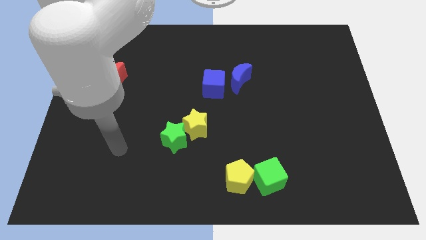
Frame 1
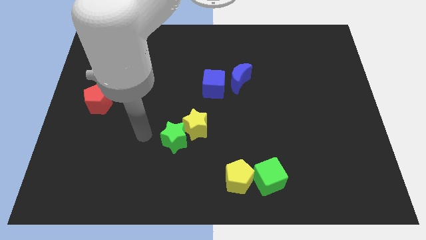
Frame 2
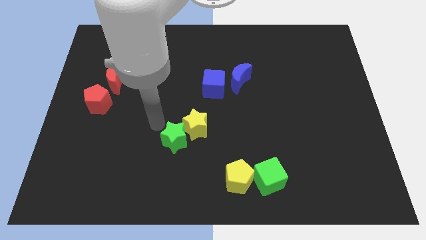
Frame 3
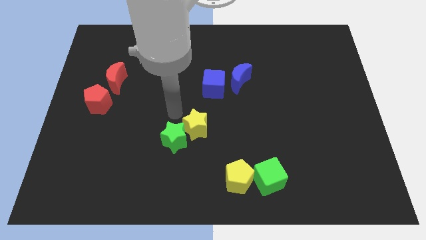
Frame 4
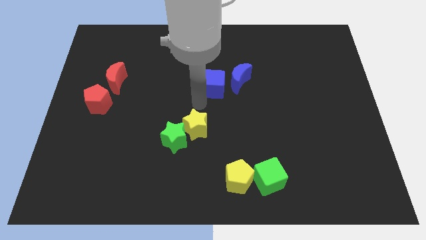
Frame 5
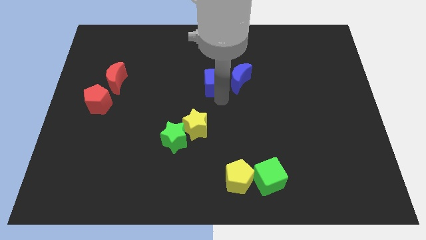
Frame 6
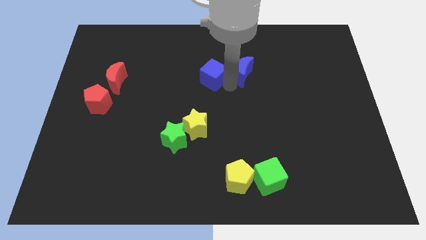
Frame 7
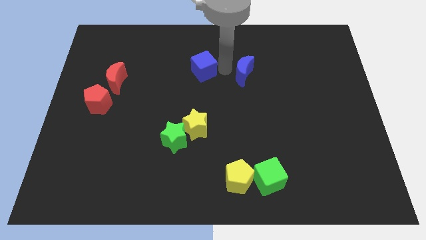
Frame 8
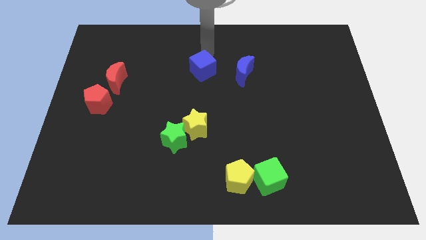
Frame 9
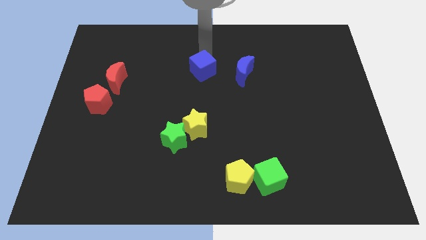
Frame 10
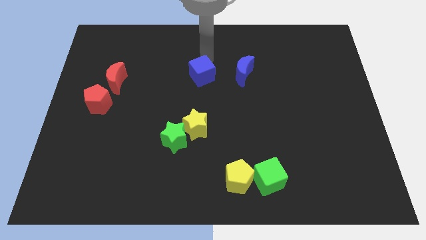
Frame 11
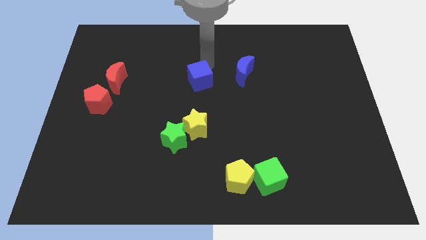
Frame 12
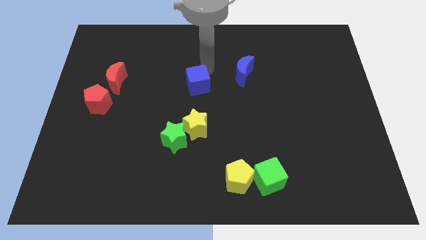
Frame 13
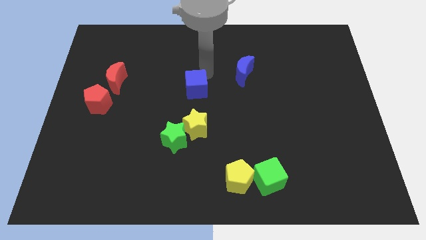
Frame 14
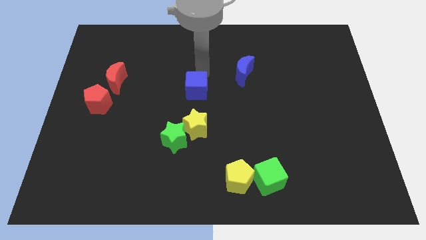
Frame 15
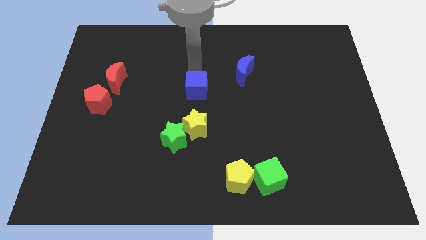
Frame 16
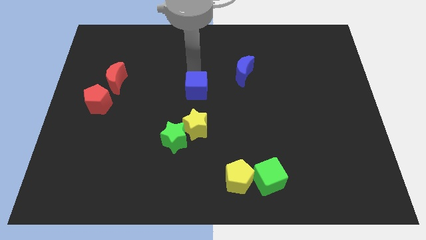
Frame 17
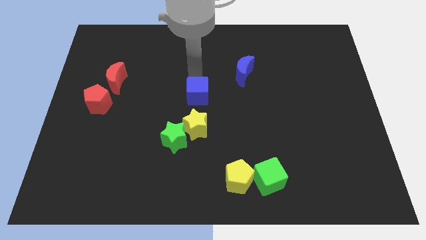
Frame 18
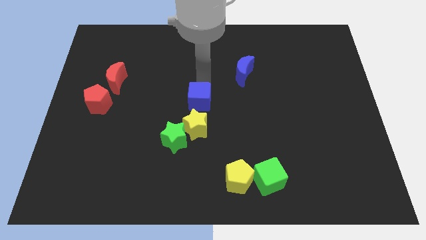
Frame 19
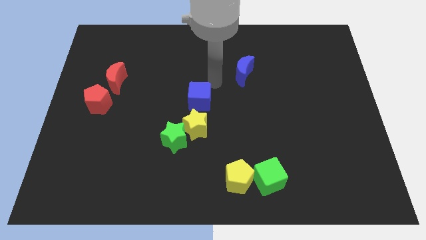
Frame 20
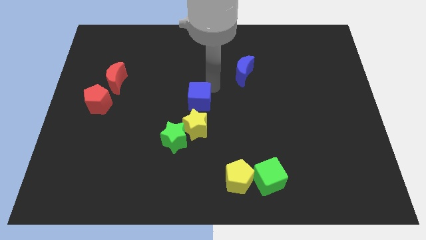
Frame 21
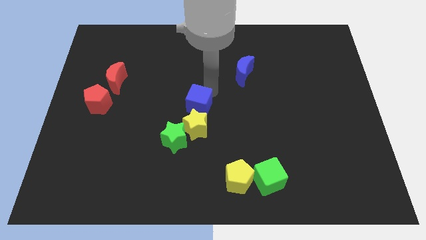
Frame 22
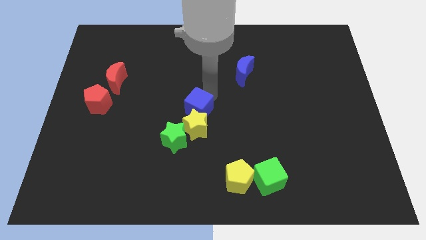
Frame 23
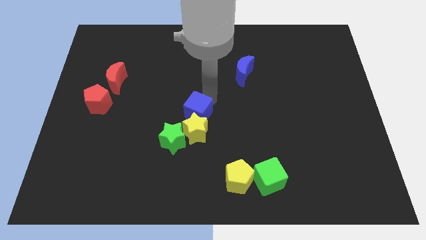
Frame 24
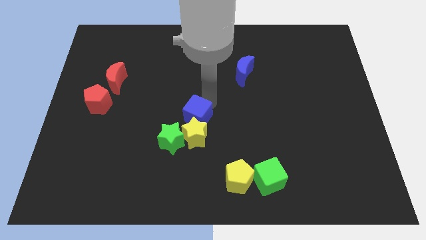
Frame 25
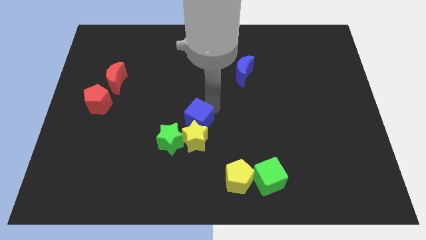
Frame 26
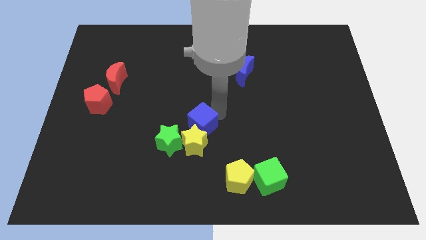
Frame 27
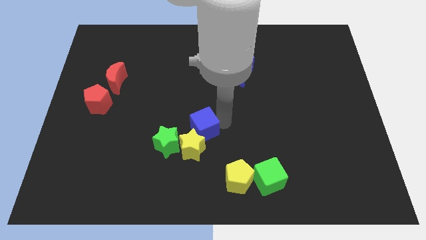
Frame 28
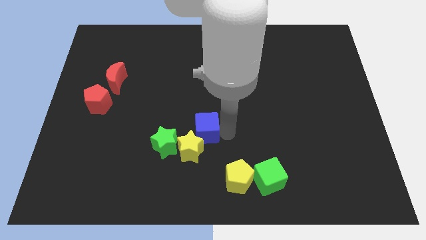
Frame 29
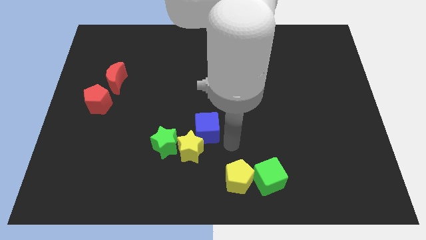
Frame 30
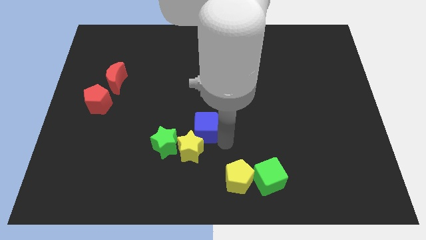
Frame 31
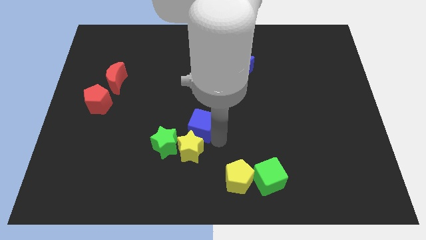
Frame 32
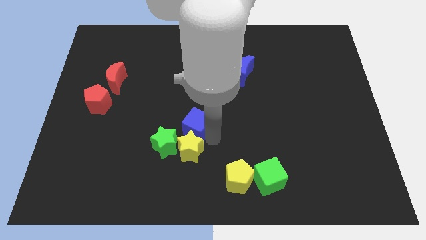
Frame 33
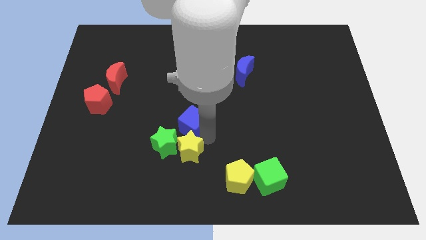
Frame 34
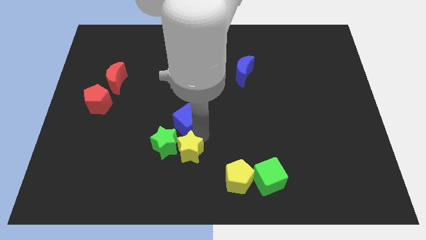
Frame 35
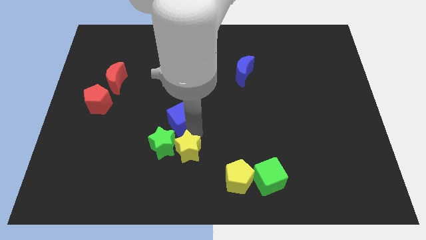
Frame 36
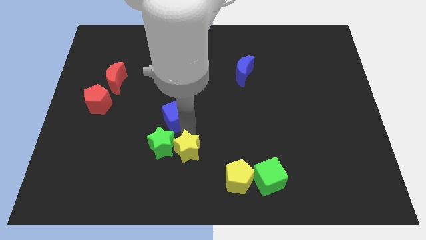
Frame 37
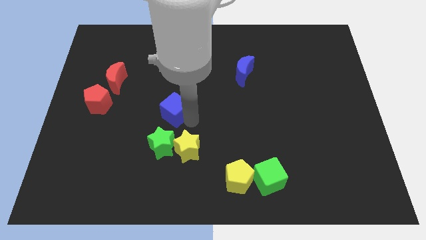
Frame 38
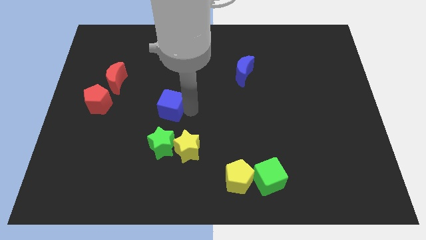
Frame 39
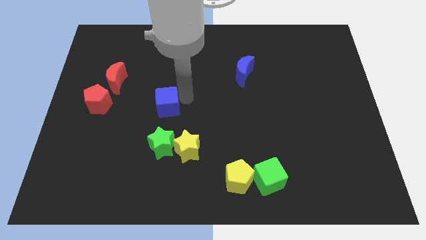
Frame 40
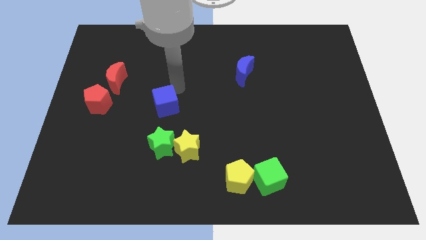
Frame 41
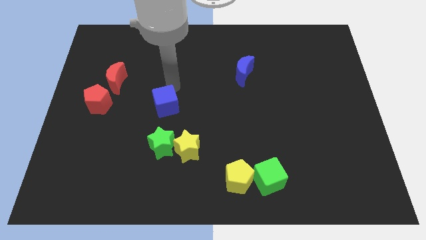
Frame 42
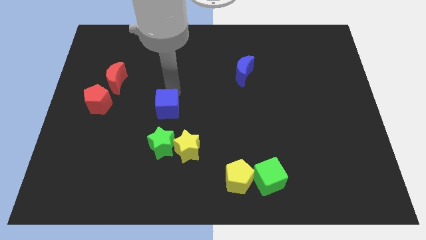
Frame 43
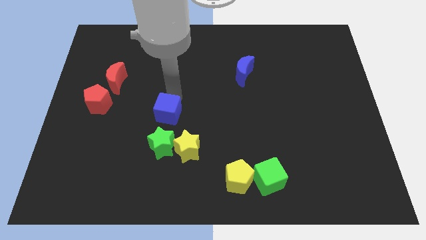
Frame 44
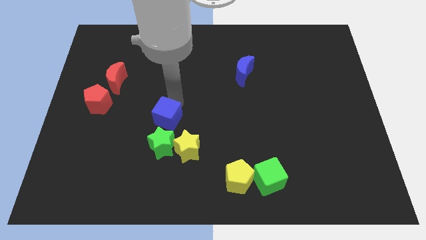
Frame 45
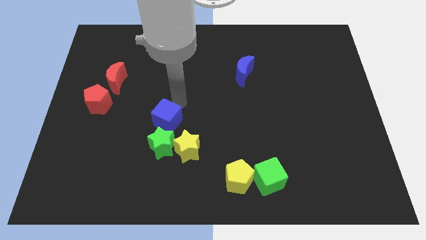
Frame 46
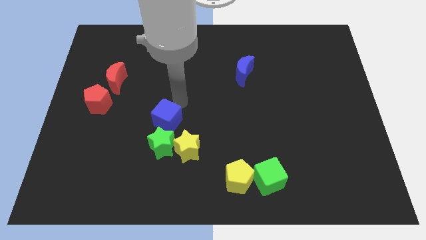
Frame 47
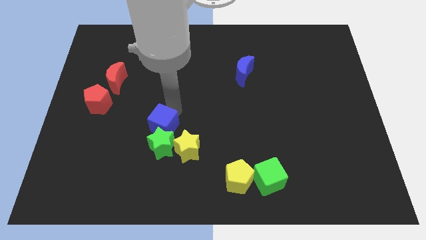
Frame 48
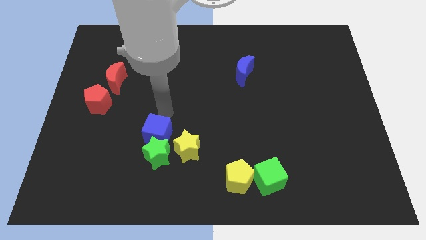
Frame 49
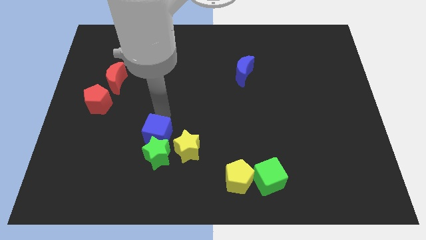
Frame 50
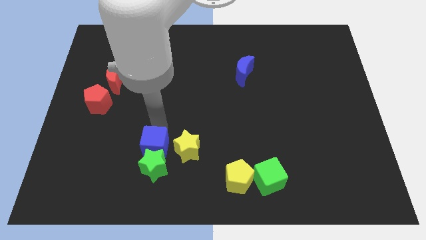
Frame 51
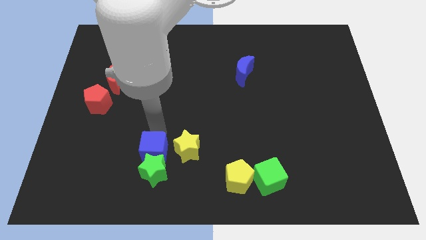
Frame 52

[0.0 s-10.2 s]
move the blue cube to the bottom left of the yellow star

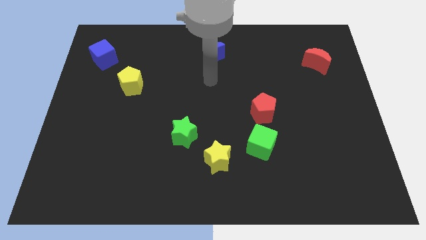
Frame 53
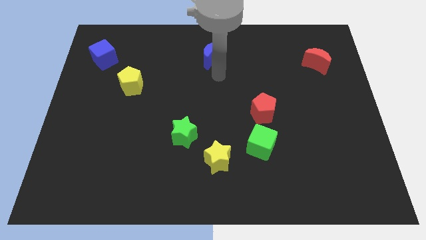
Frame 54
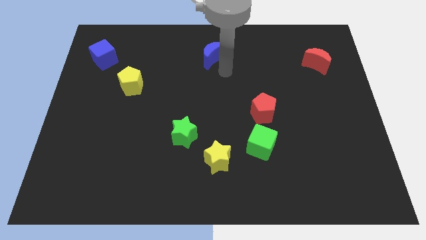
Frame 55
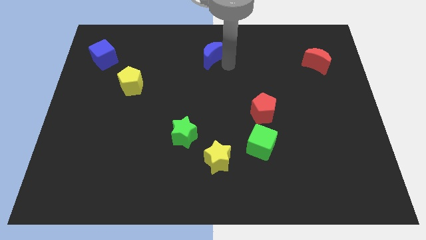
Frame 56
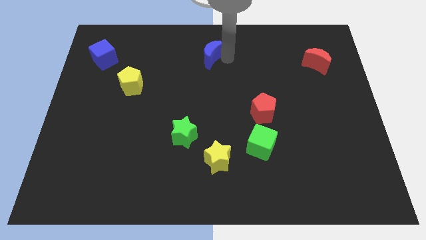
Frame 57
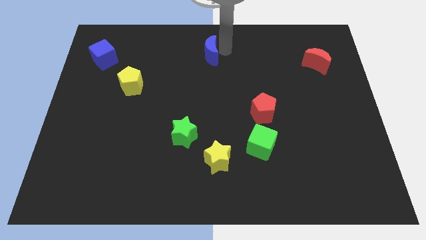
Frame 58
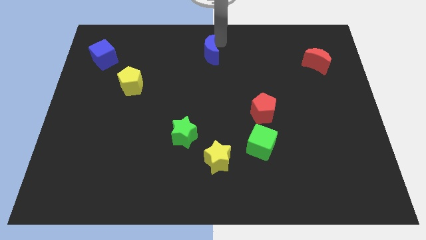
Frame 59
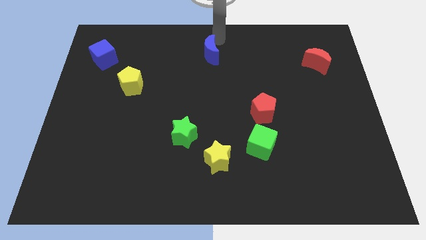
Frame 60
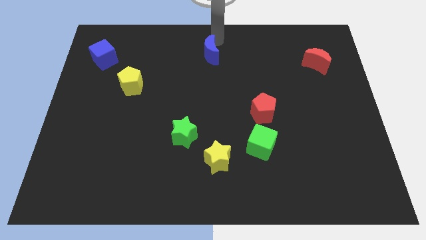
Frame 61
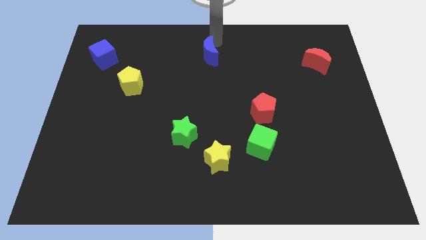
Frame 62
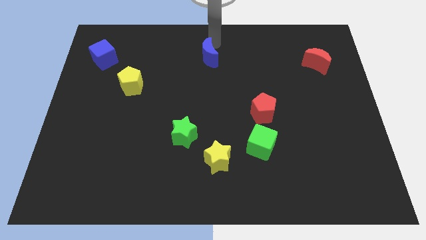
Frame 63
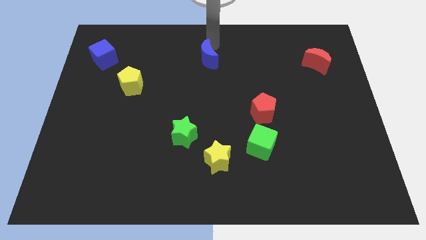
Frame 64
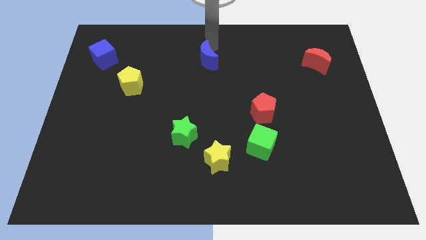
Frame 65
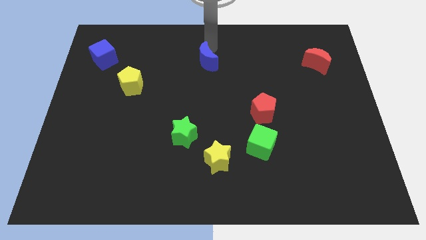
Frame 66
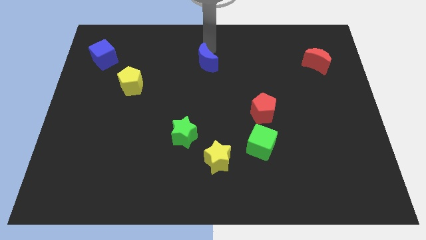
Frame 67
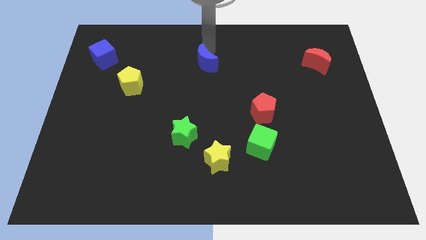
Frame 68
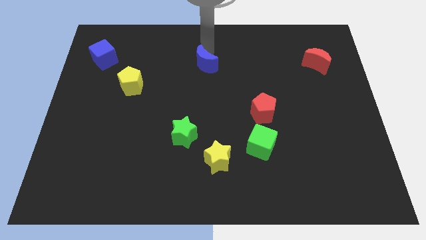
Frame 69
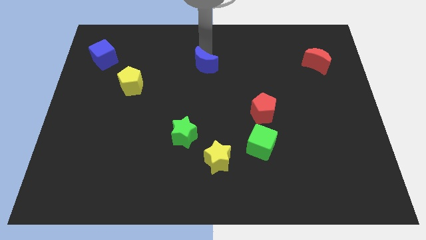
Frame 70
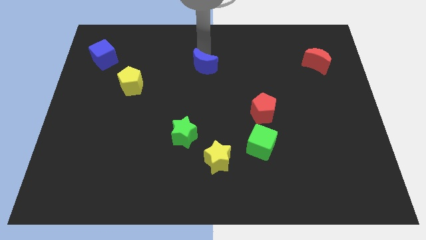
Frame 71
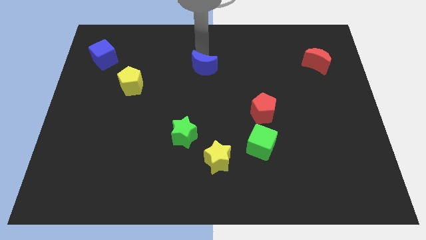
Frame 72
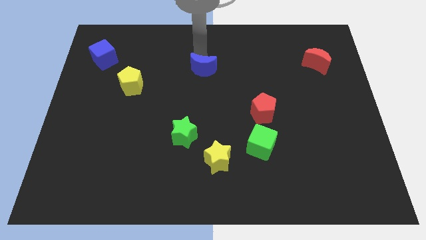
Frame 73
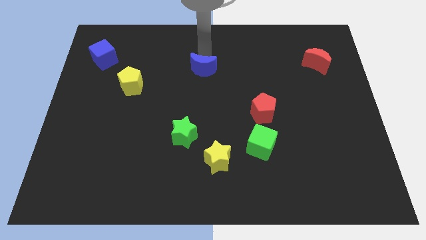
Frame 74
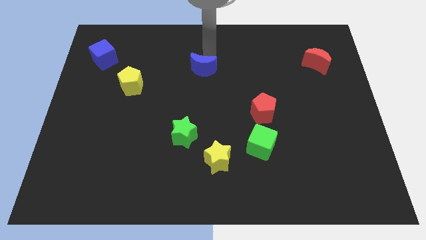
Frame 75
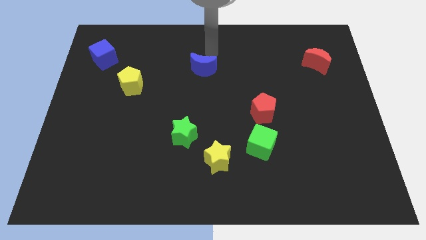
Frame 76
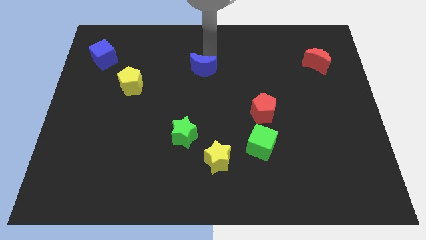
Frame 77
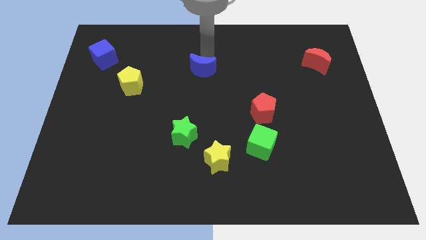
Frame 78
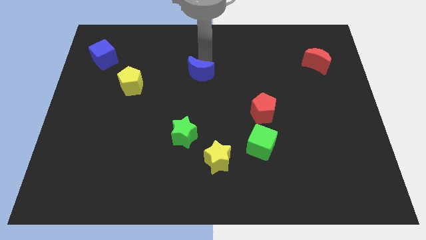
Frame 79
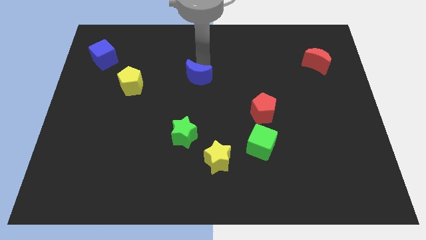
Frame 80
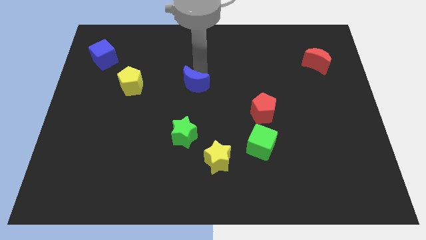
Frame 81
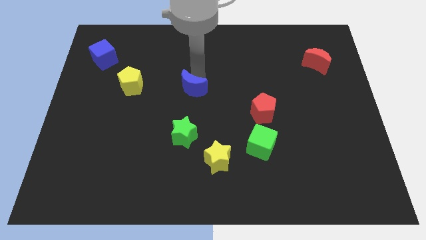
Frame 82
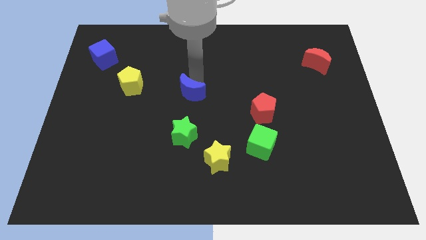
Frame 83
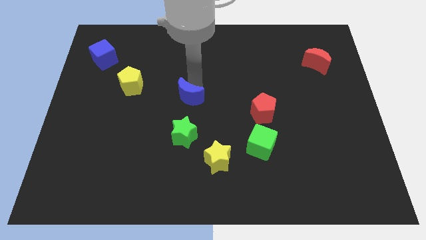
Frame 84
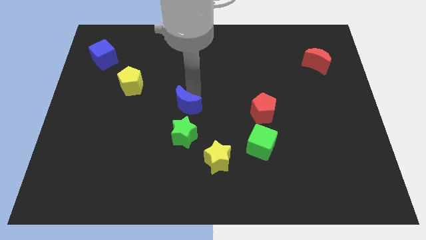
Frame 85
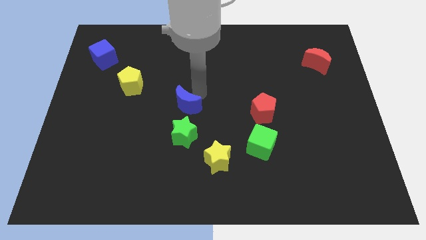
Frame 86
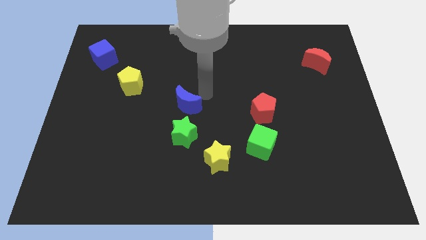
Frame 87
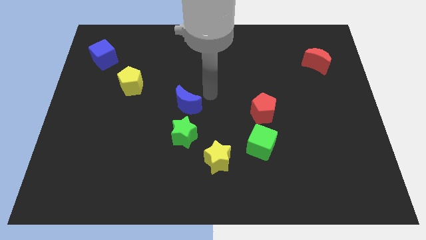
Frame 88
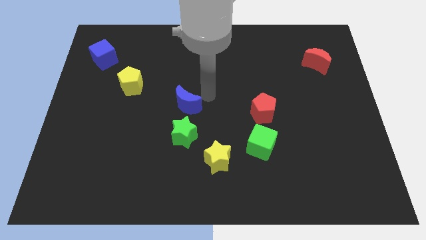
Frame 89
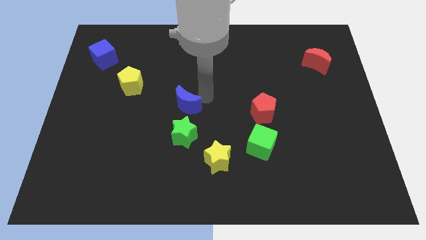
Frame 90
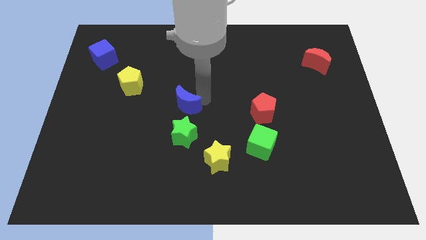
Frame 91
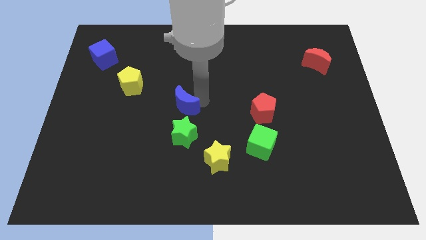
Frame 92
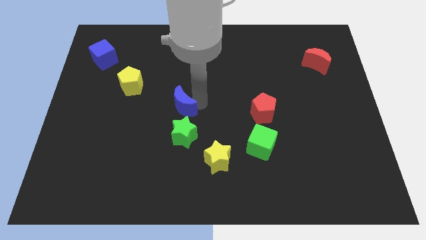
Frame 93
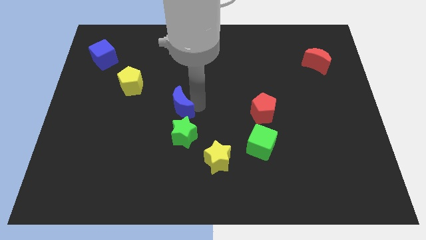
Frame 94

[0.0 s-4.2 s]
put the blue moon to the top left side of the green star
